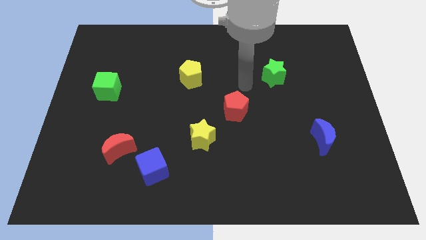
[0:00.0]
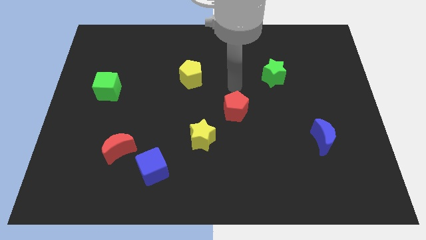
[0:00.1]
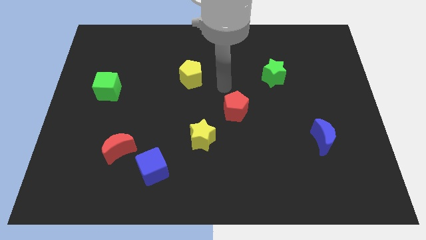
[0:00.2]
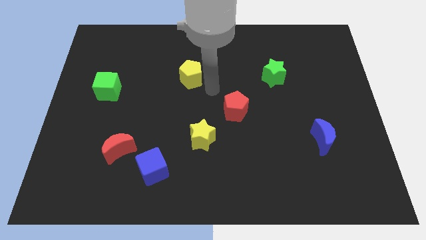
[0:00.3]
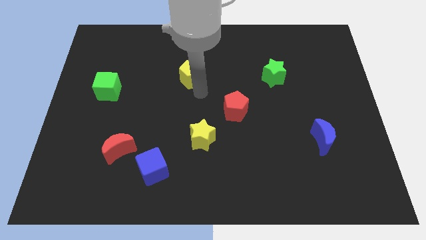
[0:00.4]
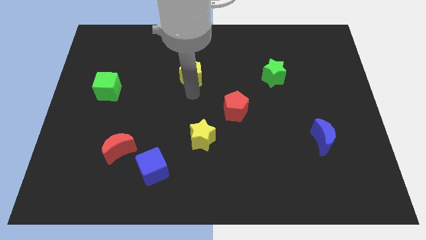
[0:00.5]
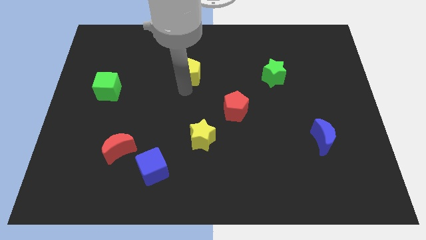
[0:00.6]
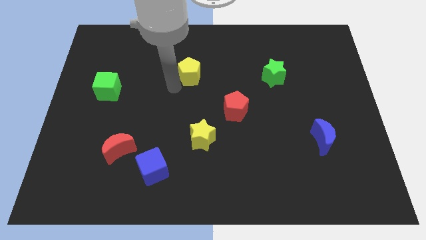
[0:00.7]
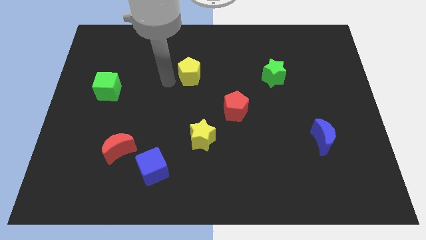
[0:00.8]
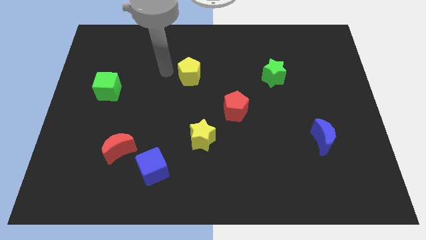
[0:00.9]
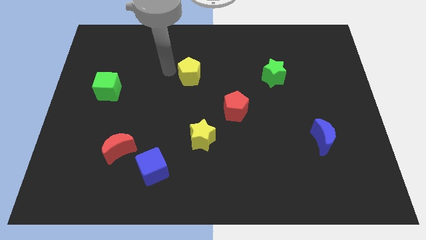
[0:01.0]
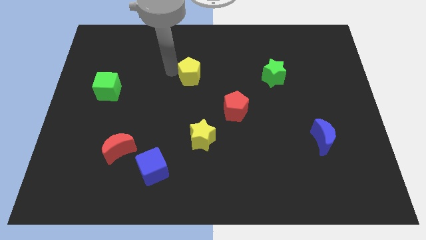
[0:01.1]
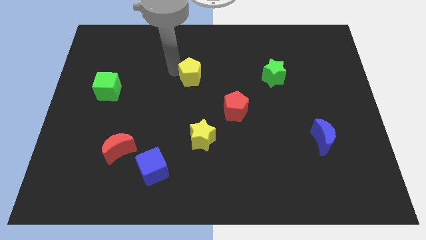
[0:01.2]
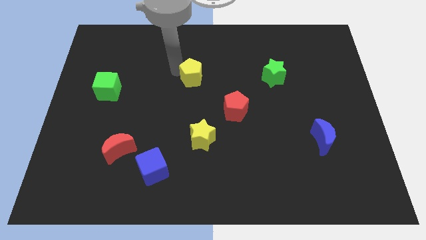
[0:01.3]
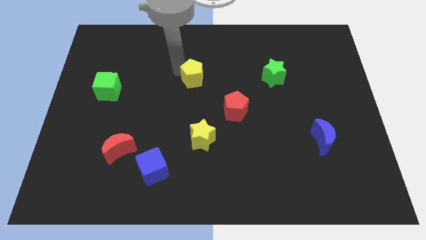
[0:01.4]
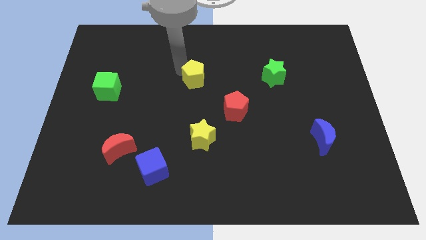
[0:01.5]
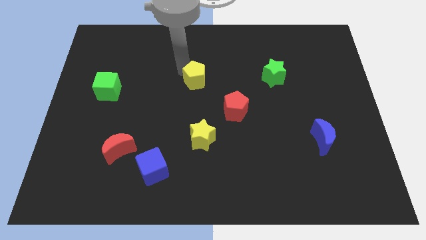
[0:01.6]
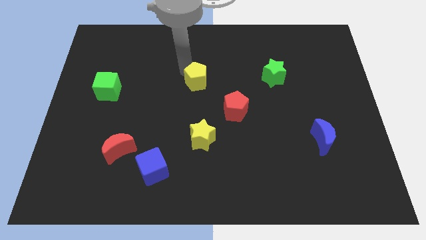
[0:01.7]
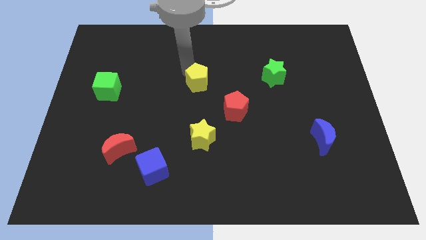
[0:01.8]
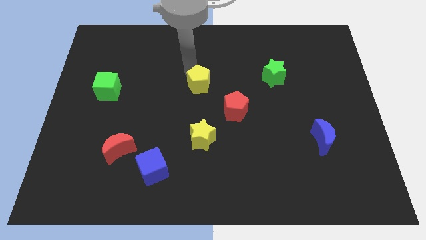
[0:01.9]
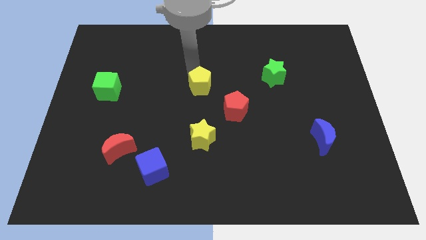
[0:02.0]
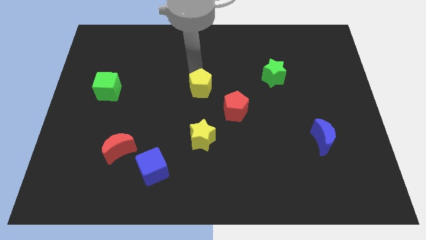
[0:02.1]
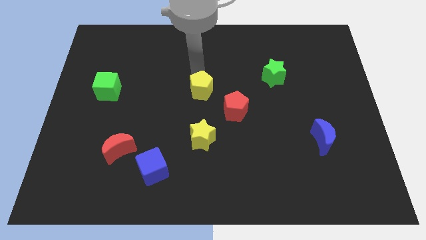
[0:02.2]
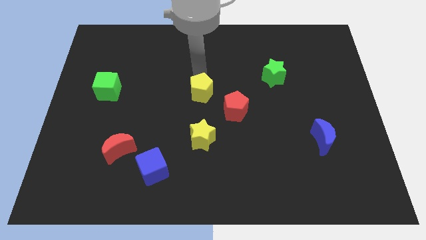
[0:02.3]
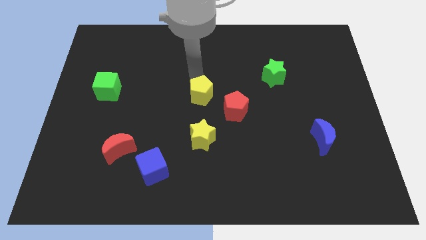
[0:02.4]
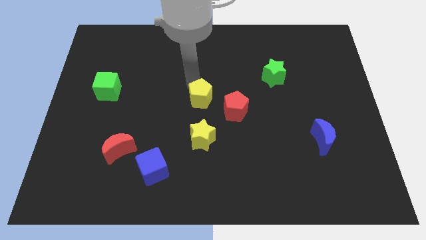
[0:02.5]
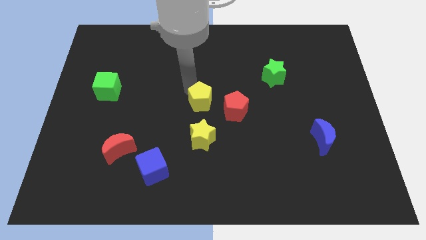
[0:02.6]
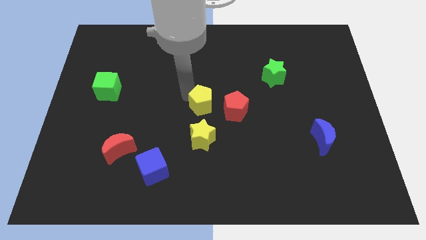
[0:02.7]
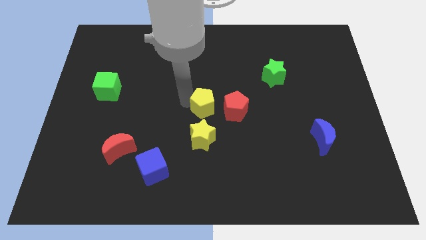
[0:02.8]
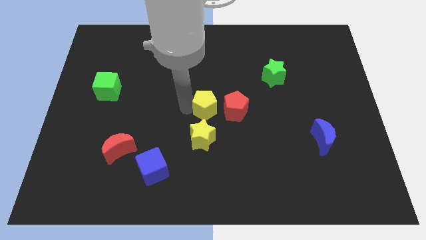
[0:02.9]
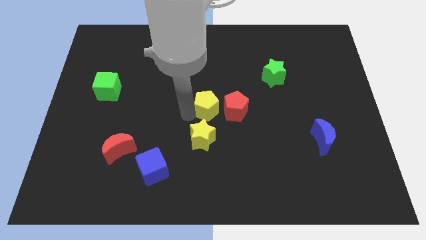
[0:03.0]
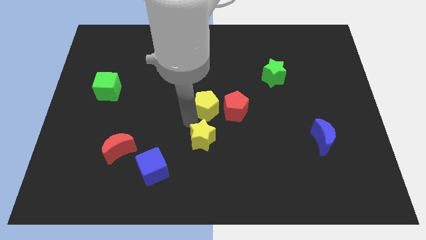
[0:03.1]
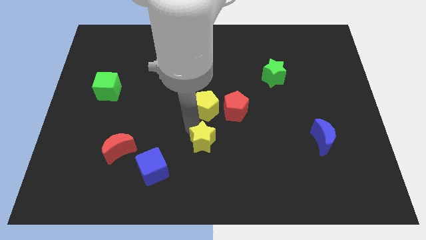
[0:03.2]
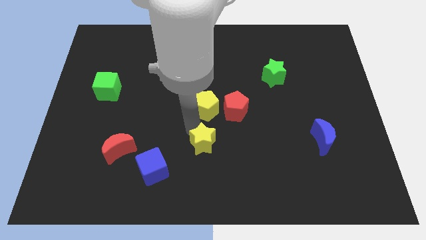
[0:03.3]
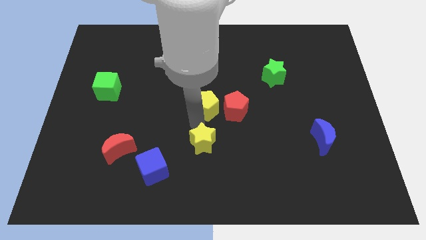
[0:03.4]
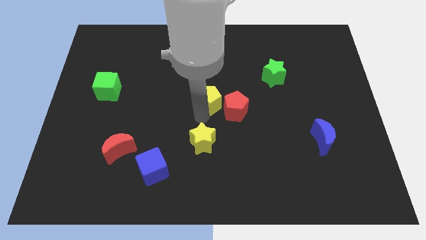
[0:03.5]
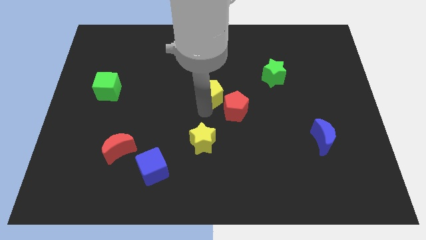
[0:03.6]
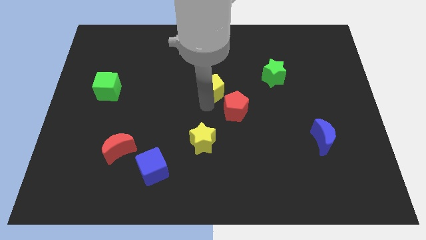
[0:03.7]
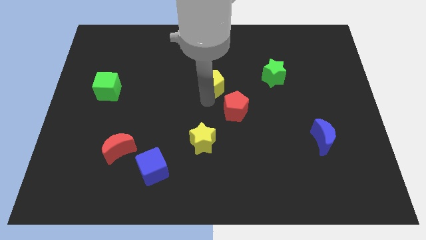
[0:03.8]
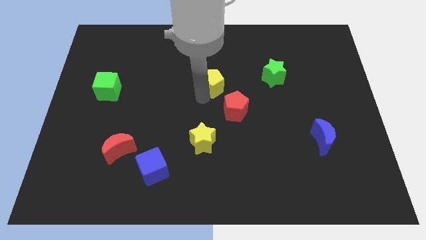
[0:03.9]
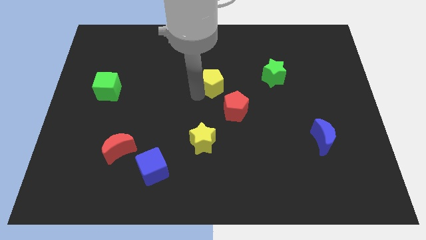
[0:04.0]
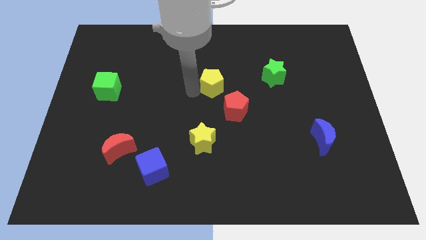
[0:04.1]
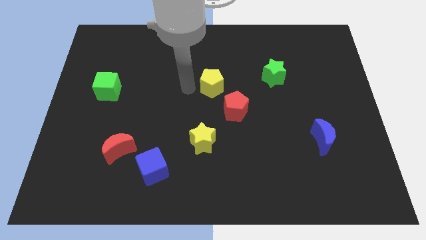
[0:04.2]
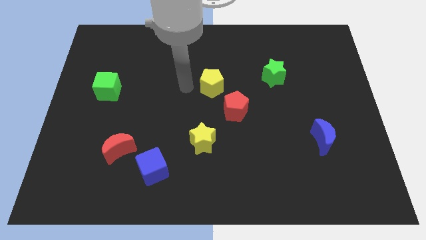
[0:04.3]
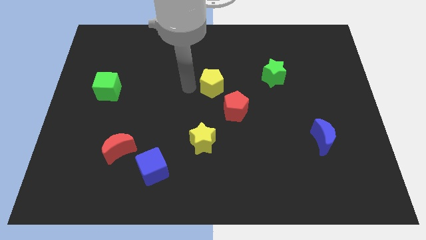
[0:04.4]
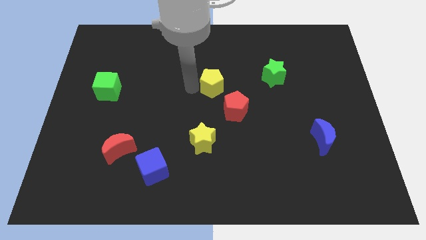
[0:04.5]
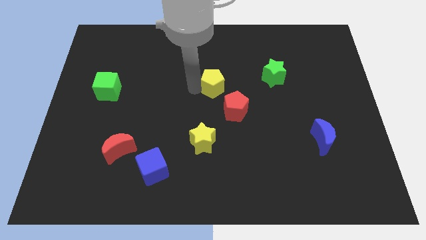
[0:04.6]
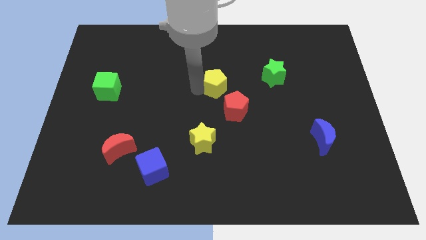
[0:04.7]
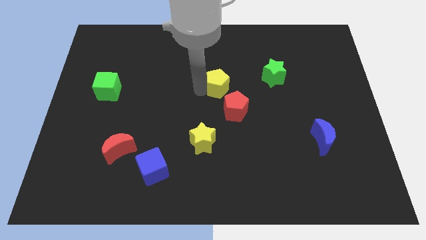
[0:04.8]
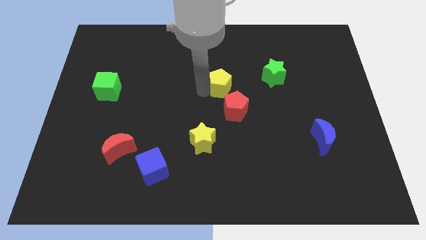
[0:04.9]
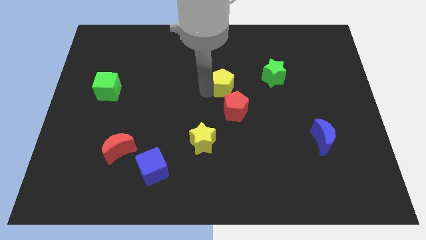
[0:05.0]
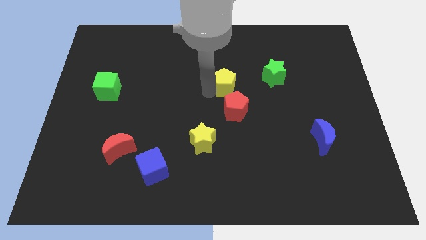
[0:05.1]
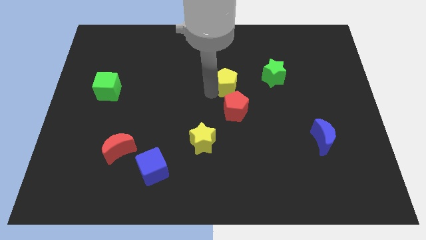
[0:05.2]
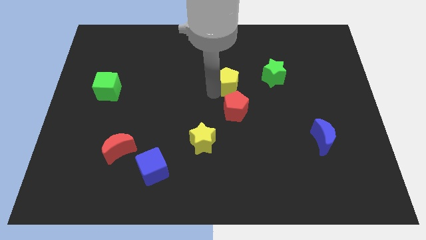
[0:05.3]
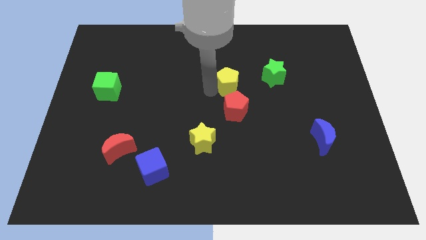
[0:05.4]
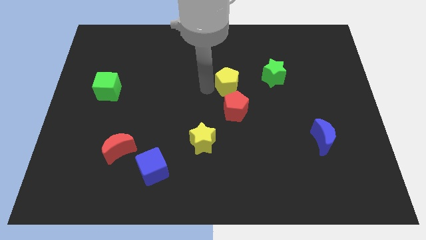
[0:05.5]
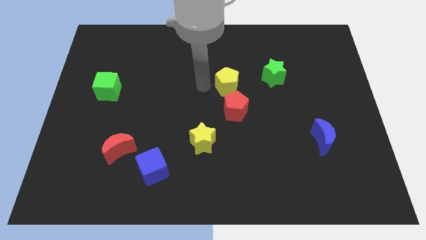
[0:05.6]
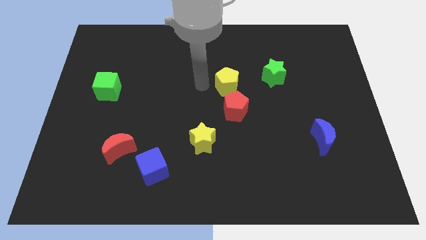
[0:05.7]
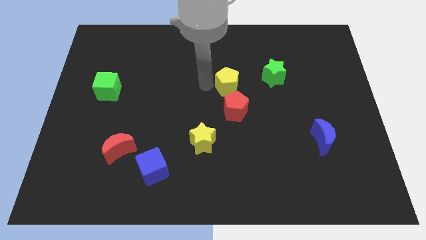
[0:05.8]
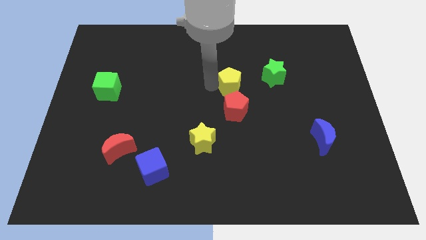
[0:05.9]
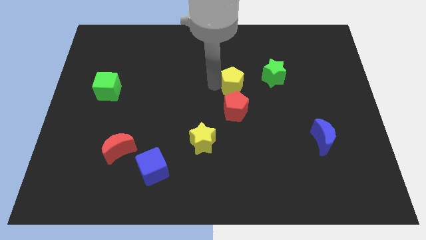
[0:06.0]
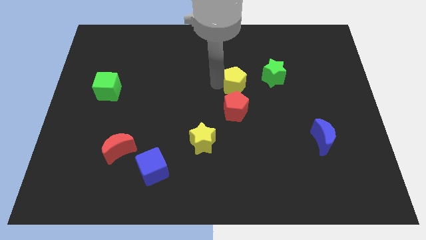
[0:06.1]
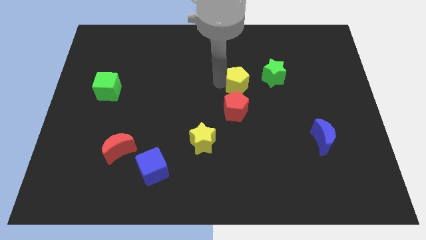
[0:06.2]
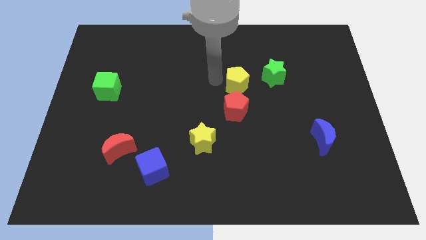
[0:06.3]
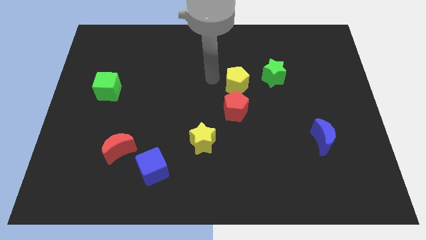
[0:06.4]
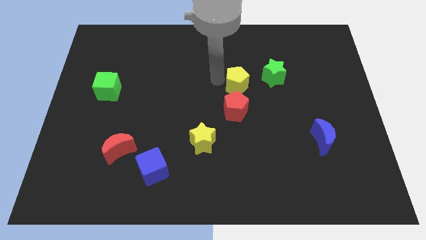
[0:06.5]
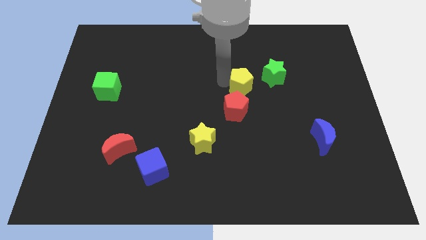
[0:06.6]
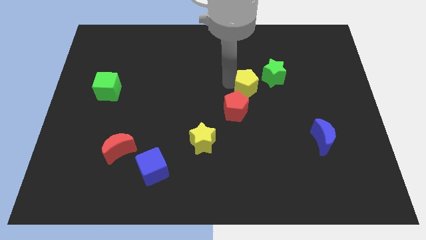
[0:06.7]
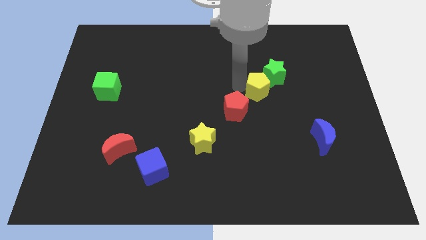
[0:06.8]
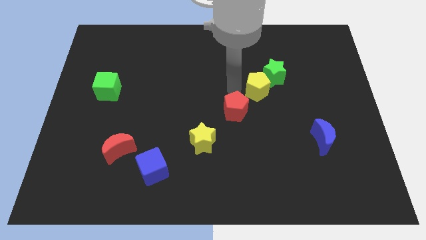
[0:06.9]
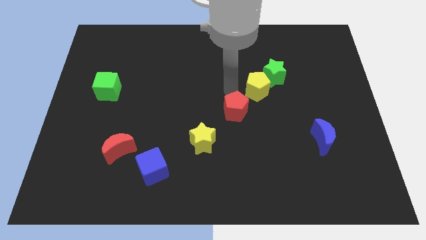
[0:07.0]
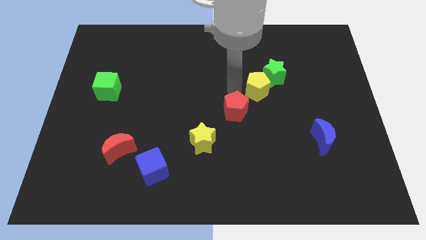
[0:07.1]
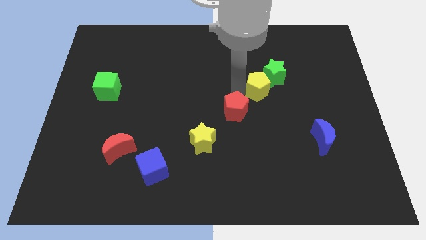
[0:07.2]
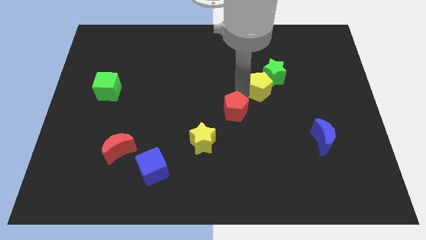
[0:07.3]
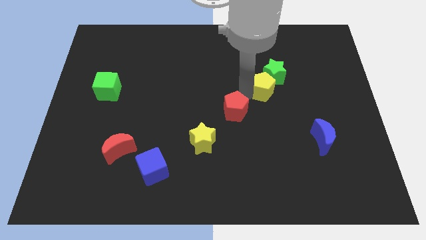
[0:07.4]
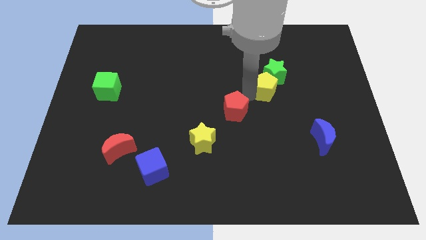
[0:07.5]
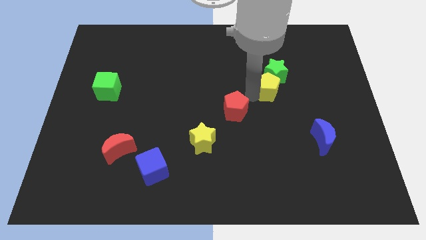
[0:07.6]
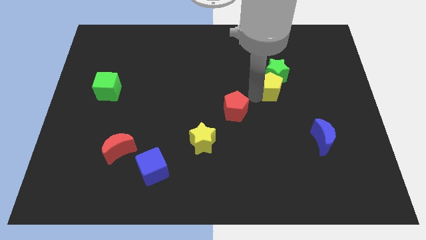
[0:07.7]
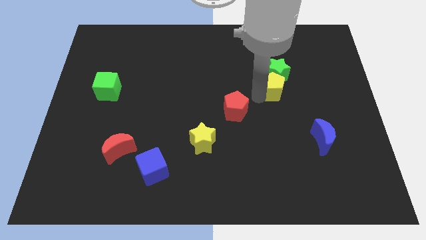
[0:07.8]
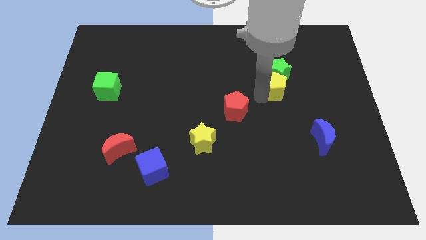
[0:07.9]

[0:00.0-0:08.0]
move the yellow pentagon to the right
